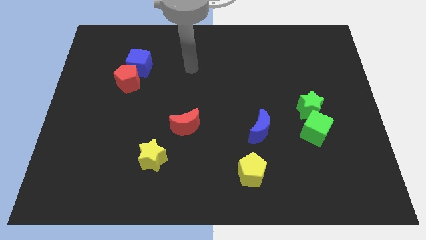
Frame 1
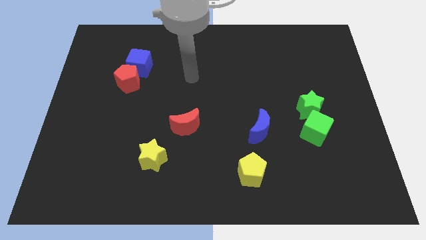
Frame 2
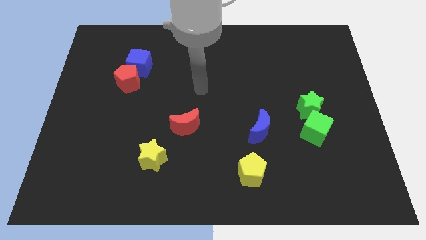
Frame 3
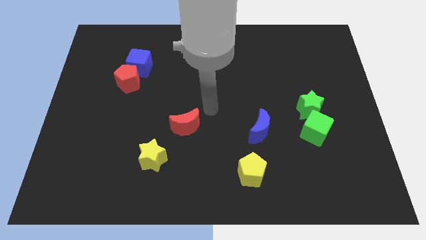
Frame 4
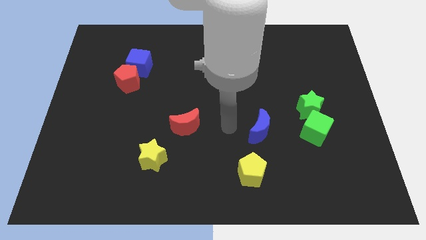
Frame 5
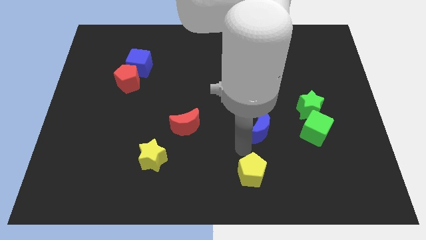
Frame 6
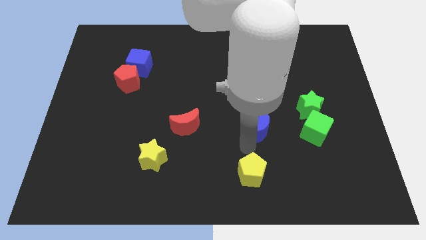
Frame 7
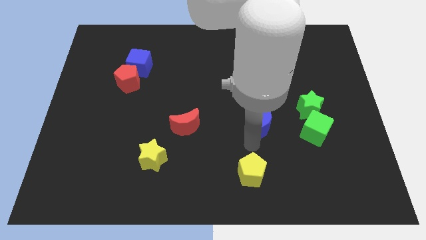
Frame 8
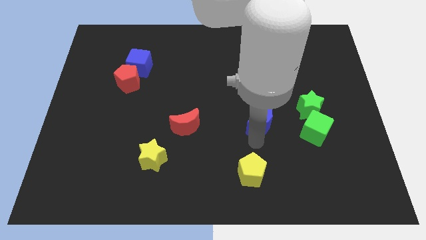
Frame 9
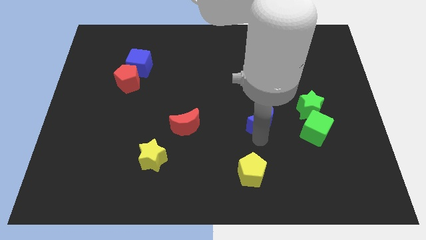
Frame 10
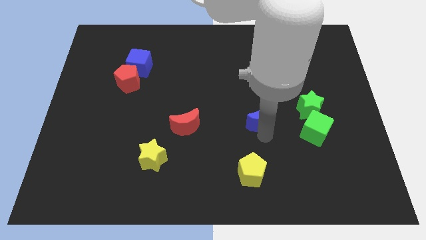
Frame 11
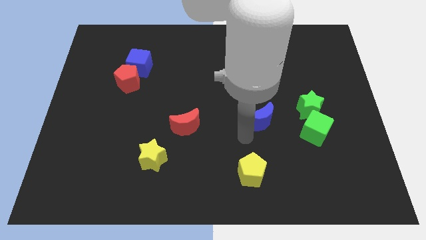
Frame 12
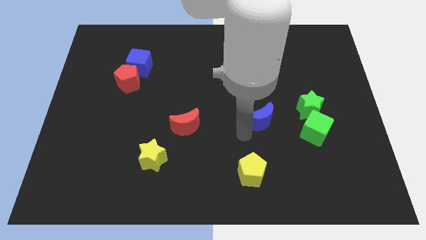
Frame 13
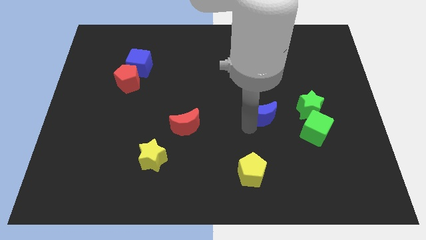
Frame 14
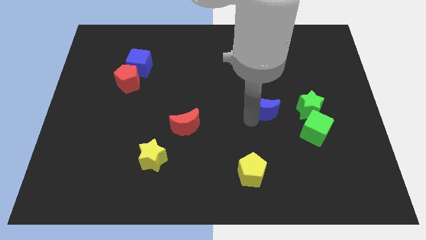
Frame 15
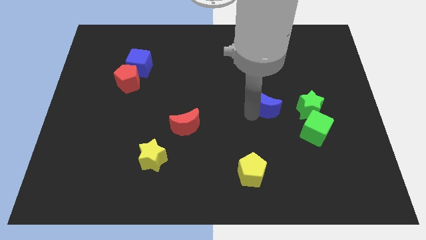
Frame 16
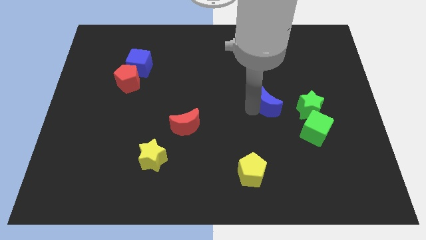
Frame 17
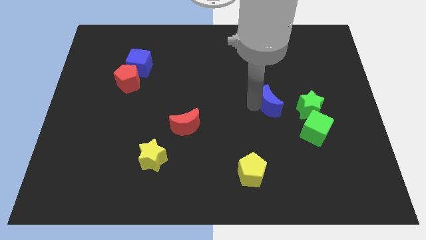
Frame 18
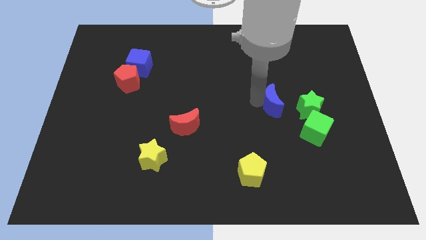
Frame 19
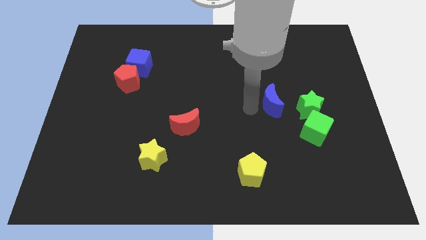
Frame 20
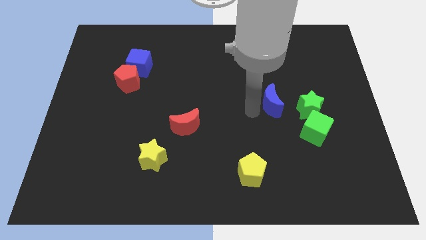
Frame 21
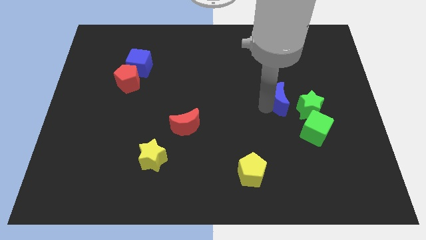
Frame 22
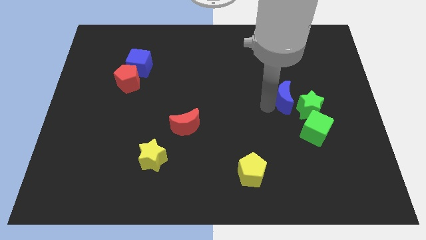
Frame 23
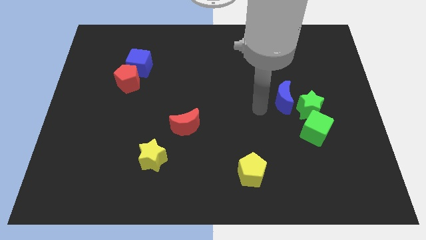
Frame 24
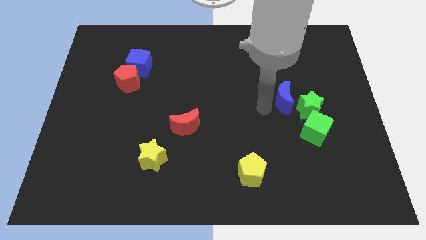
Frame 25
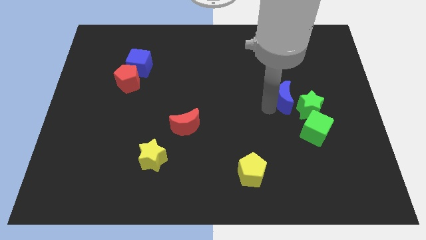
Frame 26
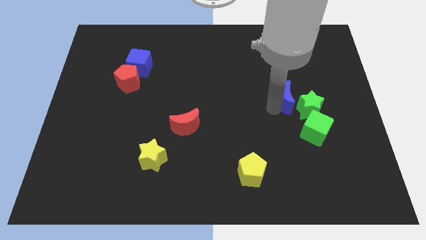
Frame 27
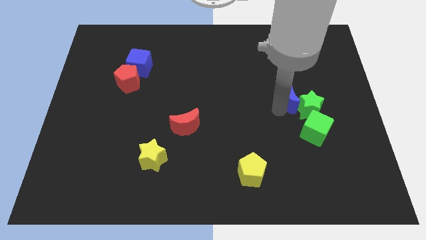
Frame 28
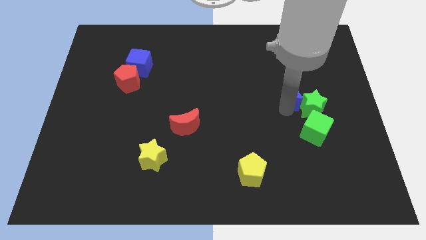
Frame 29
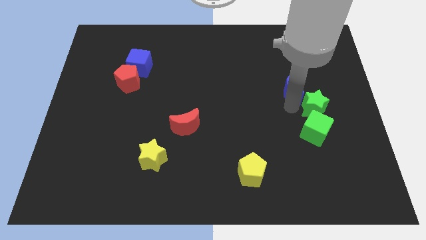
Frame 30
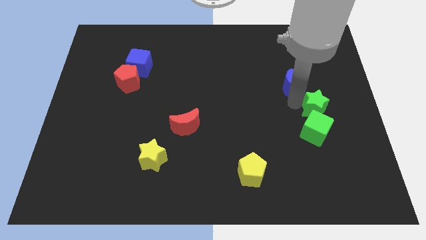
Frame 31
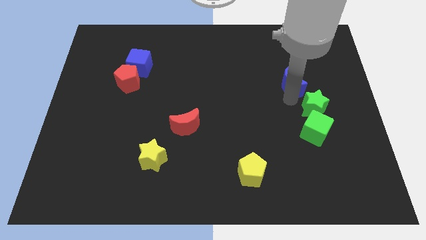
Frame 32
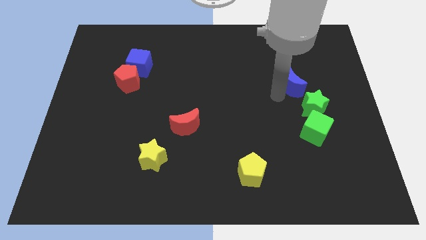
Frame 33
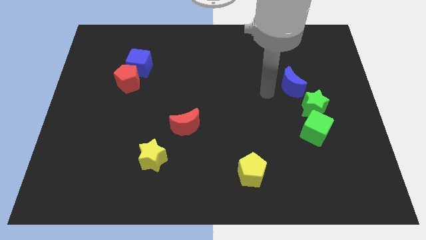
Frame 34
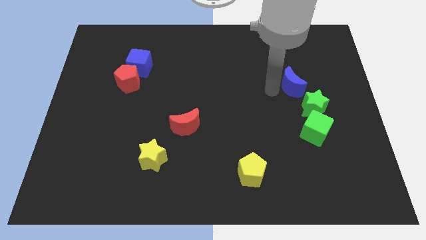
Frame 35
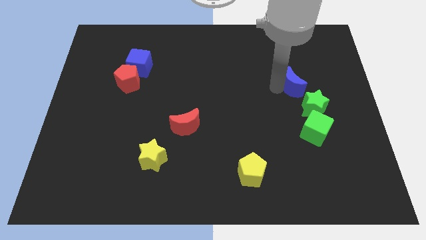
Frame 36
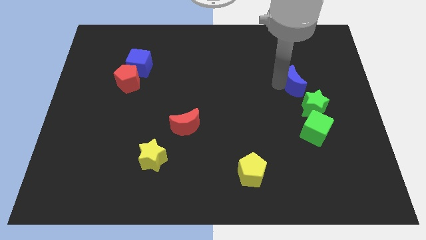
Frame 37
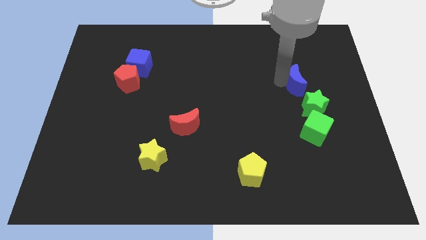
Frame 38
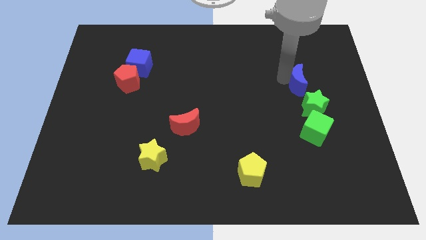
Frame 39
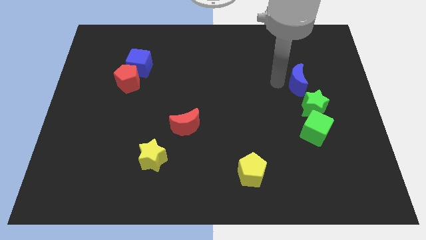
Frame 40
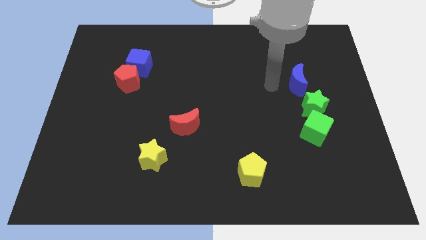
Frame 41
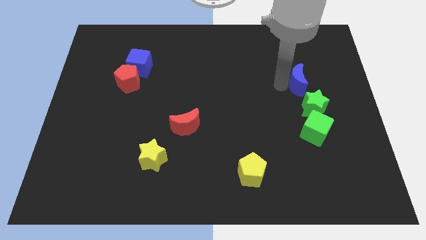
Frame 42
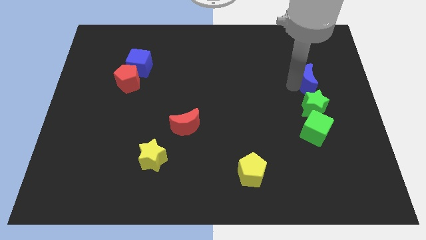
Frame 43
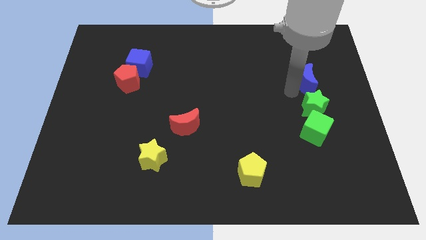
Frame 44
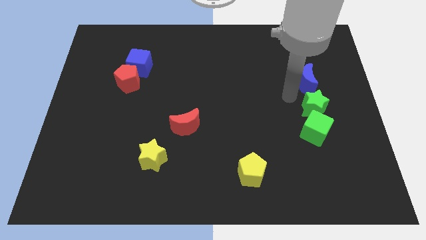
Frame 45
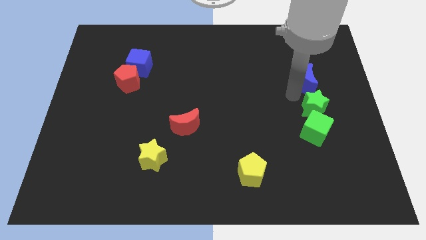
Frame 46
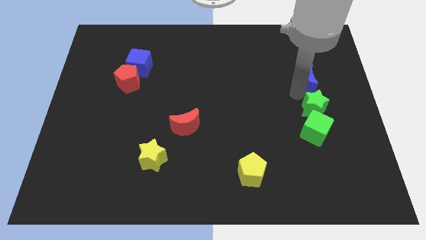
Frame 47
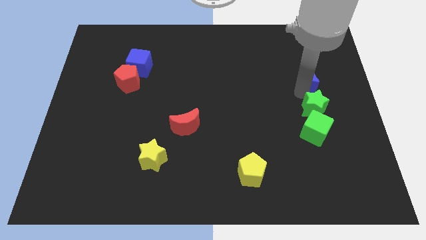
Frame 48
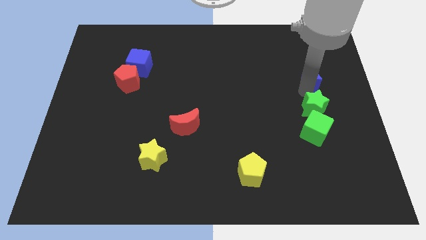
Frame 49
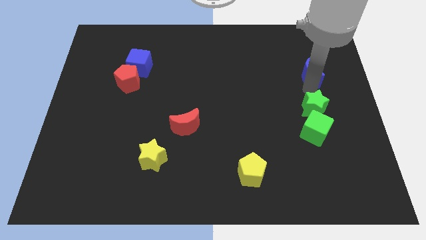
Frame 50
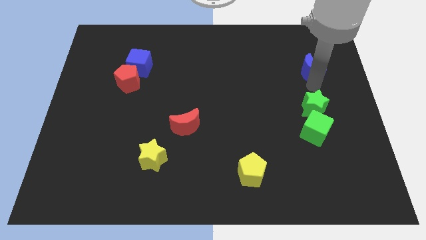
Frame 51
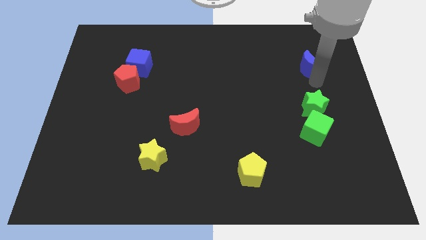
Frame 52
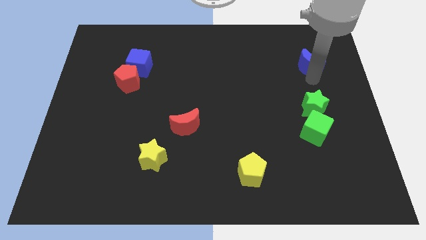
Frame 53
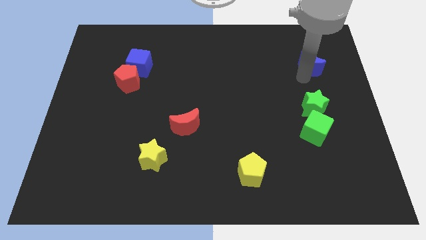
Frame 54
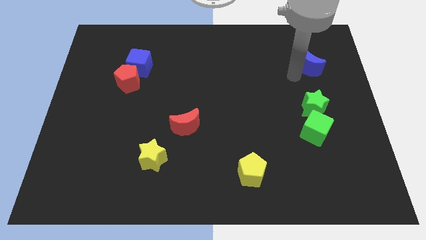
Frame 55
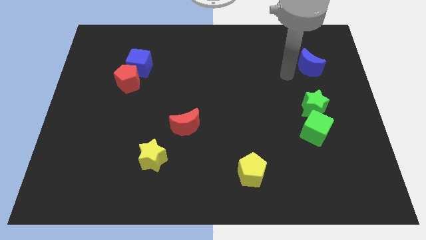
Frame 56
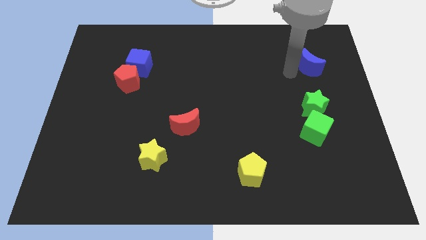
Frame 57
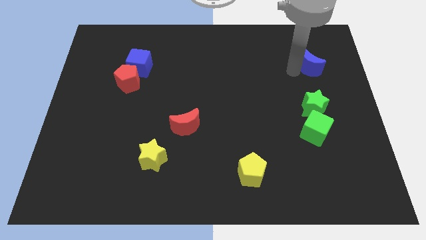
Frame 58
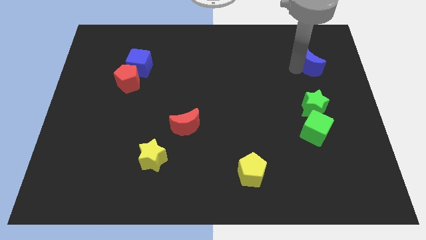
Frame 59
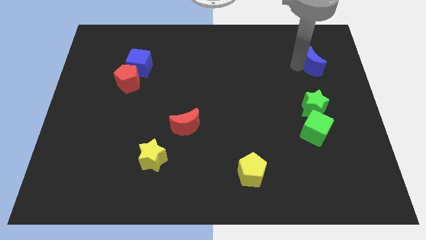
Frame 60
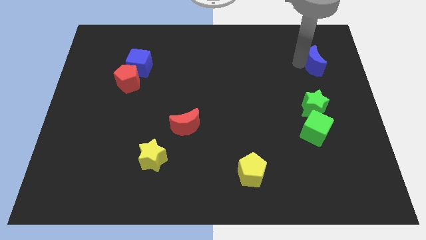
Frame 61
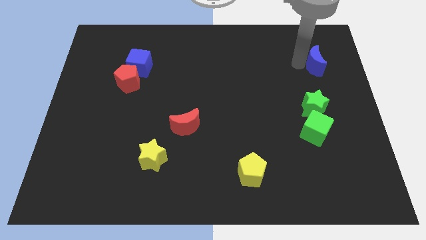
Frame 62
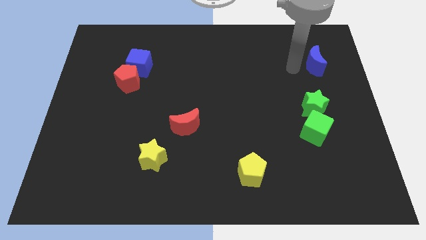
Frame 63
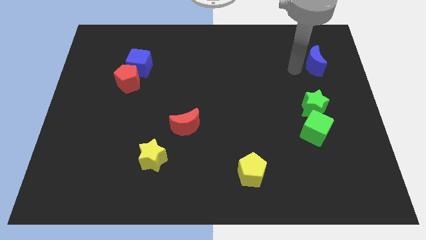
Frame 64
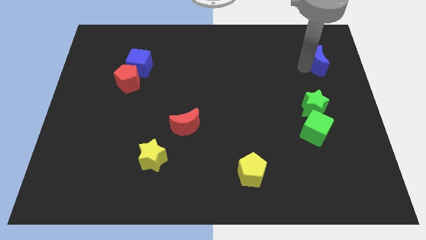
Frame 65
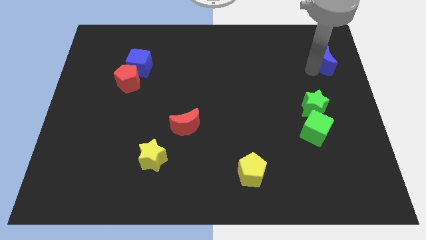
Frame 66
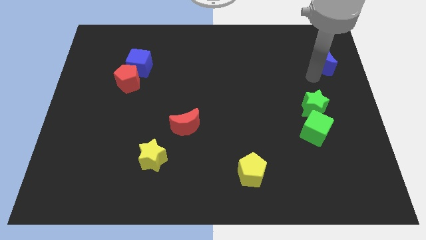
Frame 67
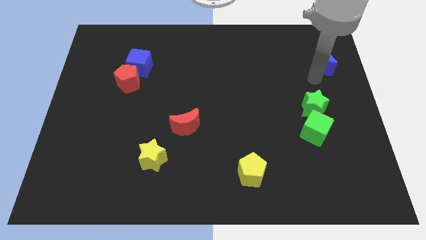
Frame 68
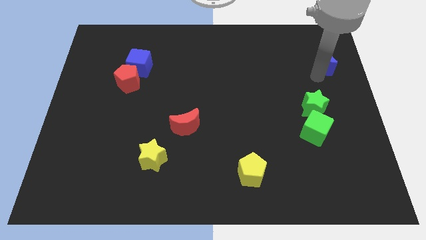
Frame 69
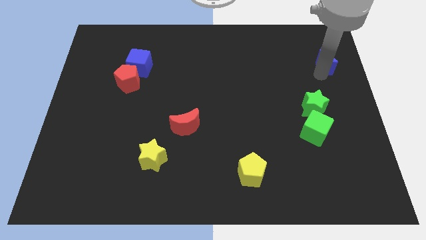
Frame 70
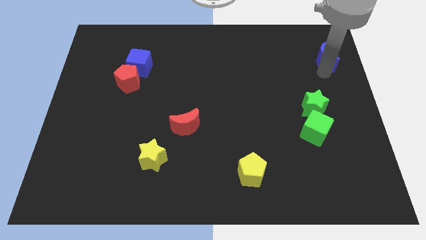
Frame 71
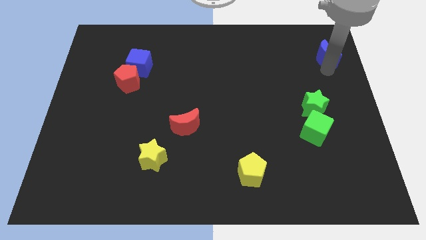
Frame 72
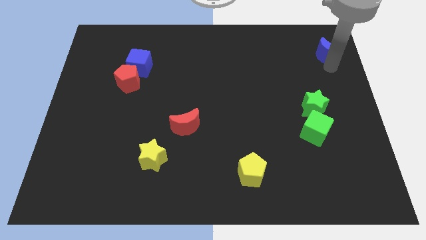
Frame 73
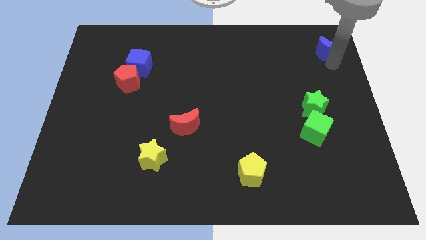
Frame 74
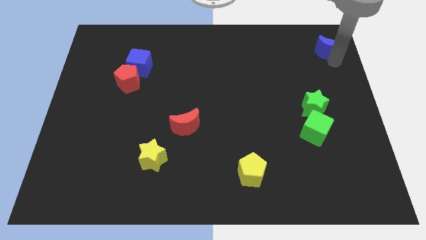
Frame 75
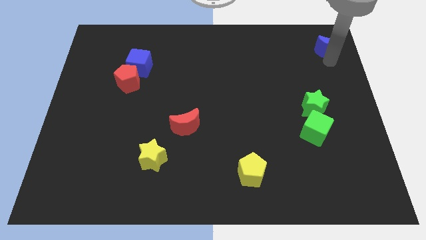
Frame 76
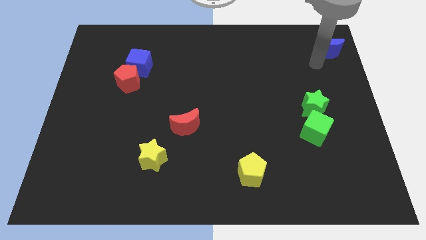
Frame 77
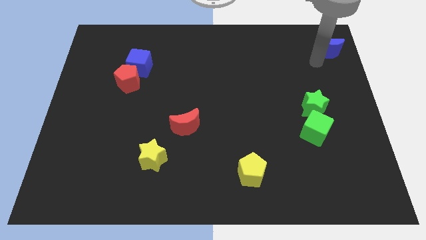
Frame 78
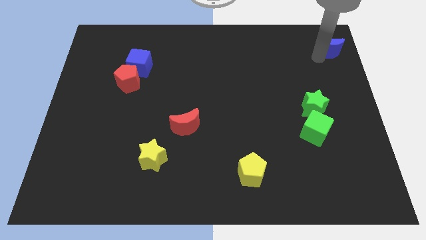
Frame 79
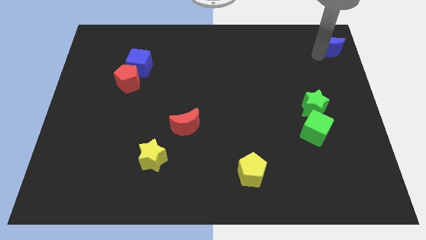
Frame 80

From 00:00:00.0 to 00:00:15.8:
move the blue moon to the upper right corner
